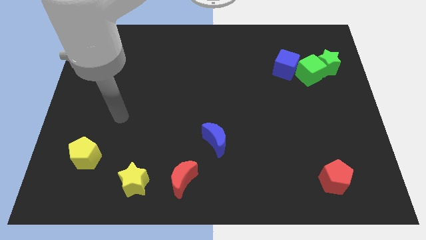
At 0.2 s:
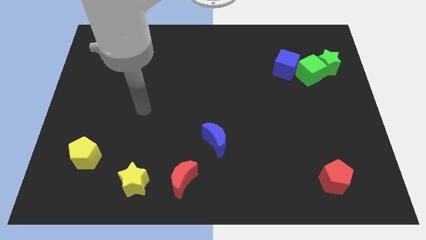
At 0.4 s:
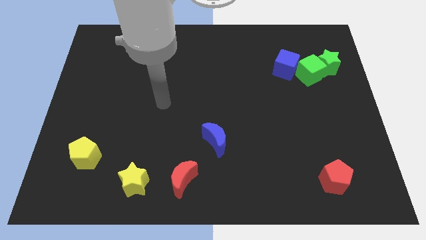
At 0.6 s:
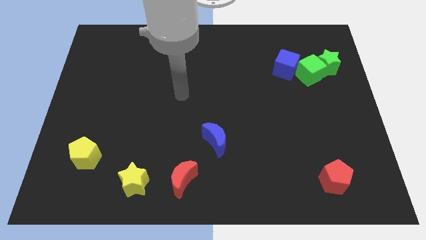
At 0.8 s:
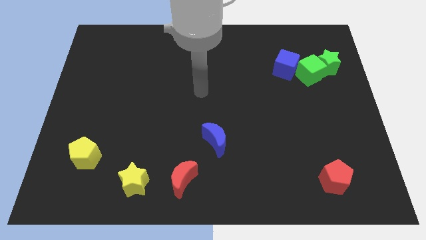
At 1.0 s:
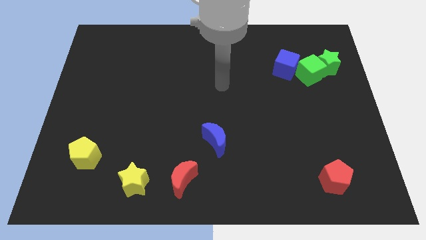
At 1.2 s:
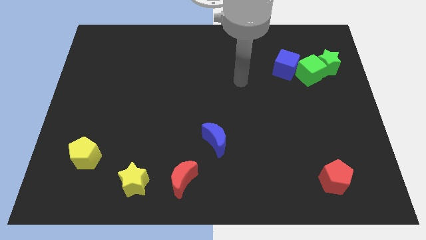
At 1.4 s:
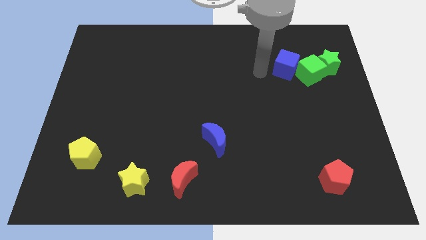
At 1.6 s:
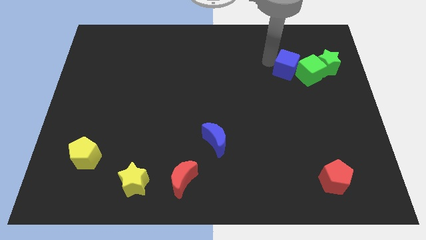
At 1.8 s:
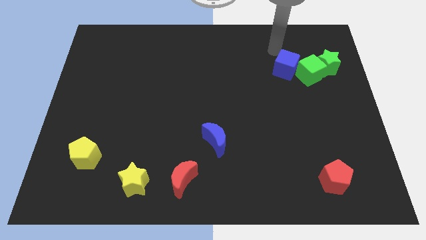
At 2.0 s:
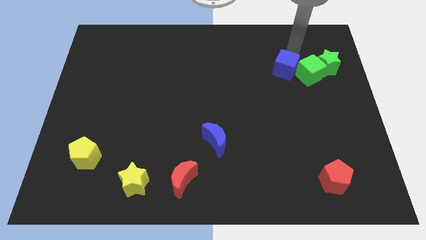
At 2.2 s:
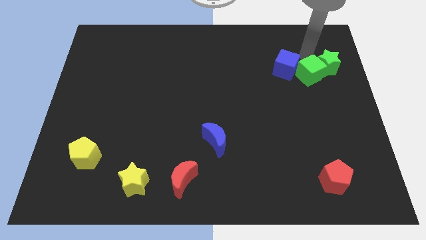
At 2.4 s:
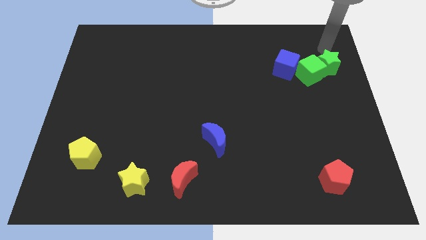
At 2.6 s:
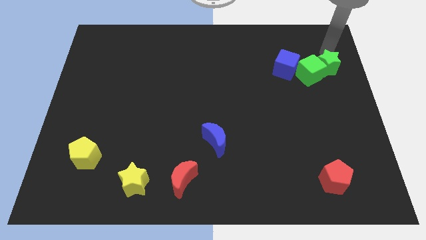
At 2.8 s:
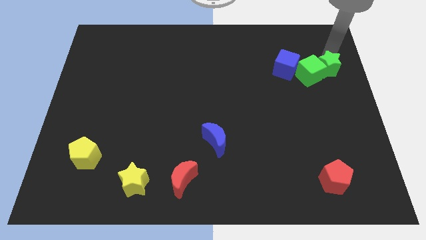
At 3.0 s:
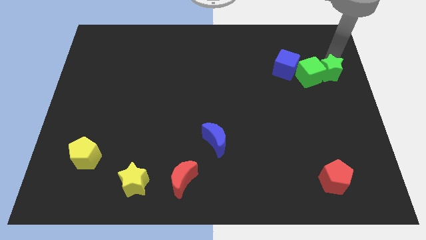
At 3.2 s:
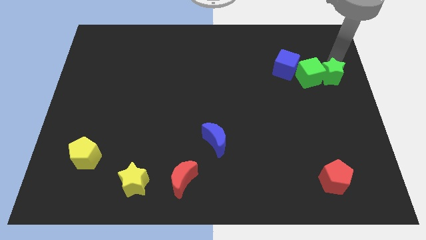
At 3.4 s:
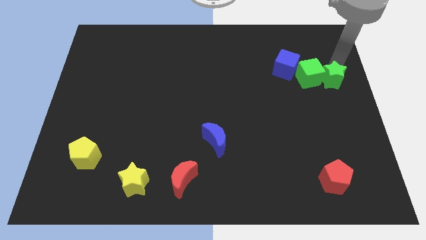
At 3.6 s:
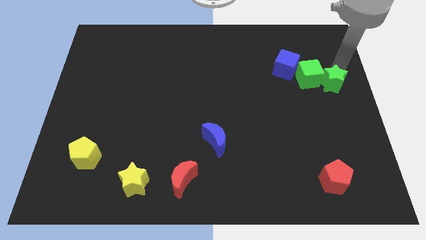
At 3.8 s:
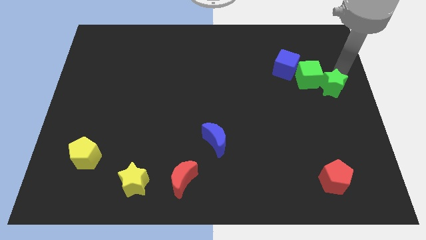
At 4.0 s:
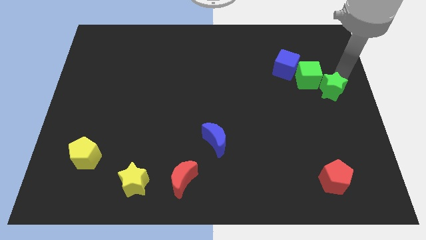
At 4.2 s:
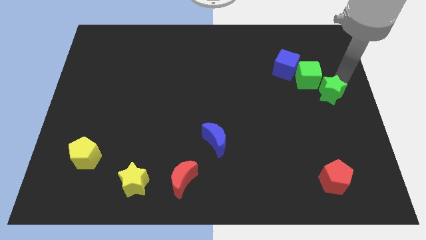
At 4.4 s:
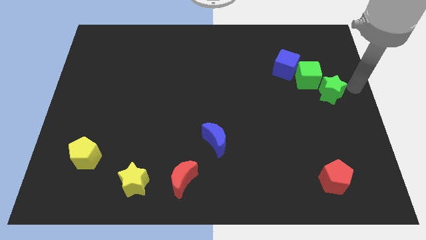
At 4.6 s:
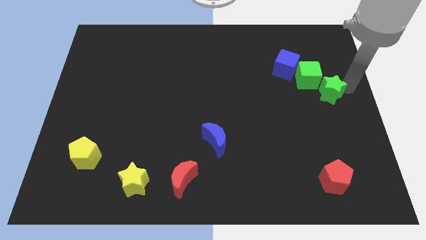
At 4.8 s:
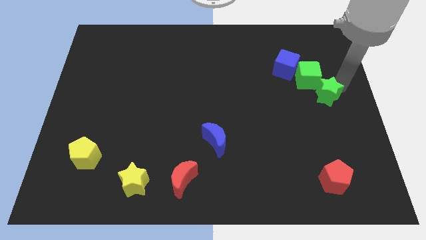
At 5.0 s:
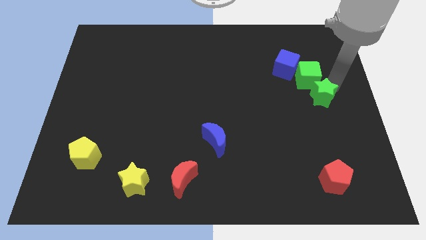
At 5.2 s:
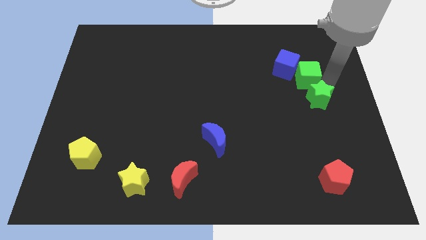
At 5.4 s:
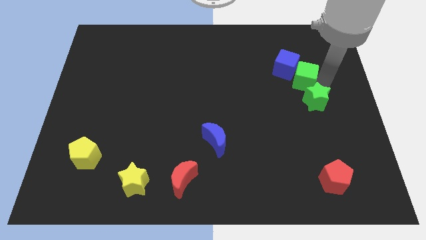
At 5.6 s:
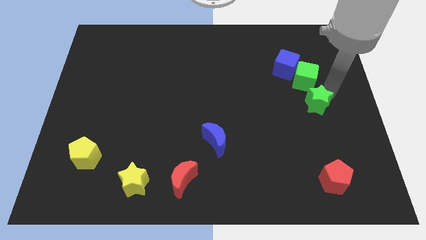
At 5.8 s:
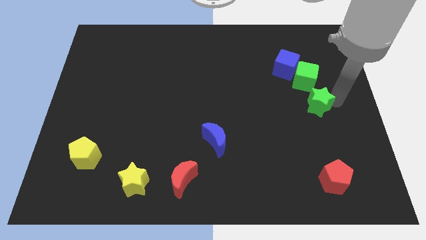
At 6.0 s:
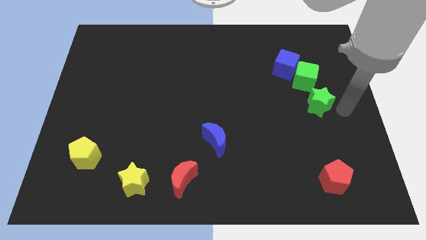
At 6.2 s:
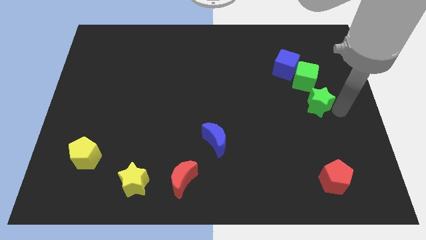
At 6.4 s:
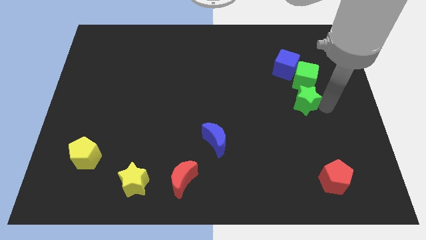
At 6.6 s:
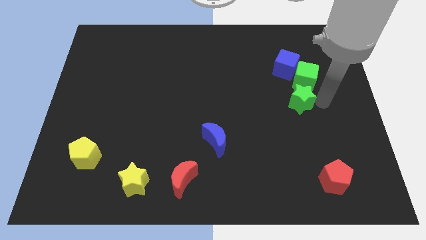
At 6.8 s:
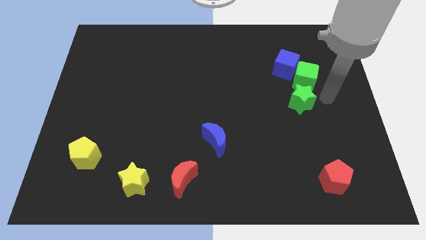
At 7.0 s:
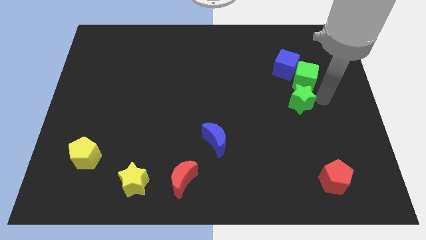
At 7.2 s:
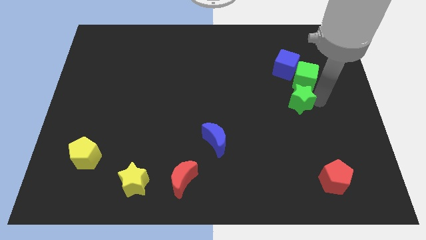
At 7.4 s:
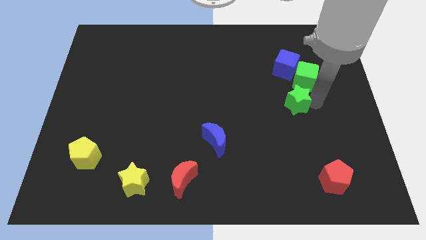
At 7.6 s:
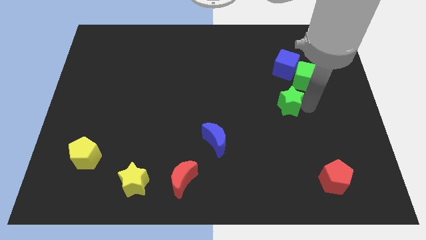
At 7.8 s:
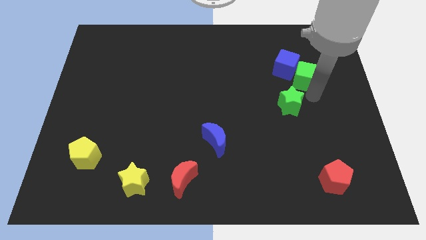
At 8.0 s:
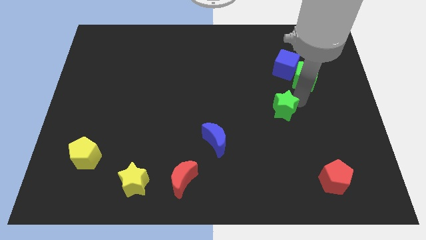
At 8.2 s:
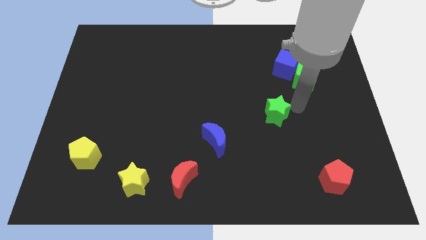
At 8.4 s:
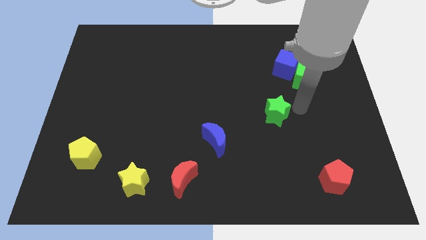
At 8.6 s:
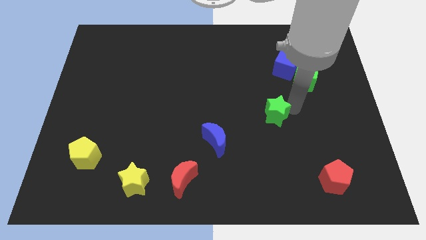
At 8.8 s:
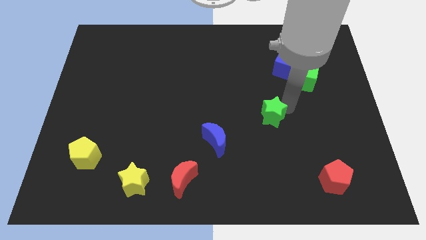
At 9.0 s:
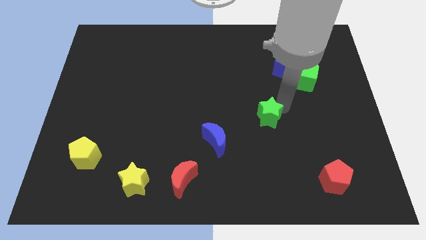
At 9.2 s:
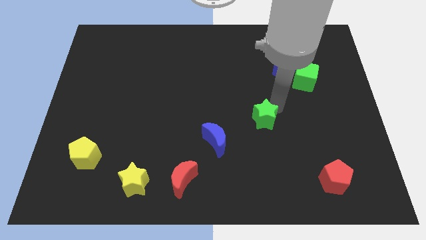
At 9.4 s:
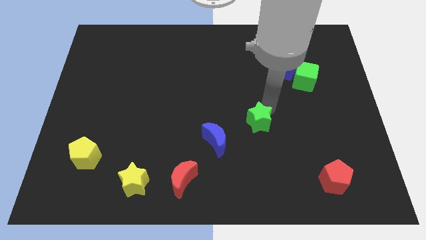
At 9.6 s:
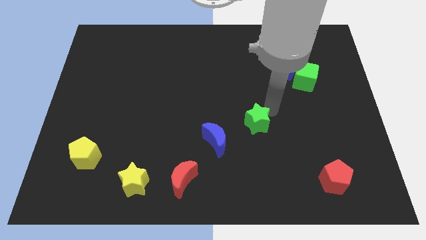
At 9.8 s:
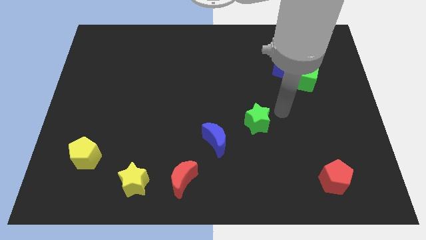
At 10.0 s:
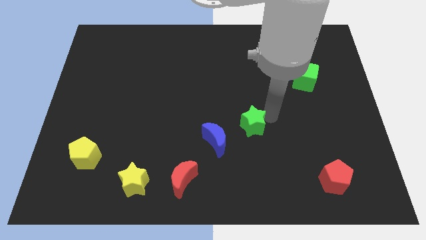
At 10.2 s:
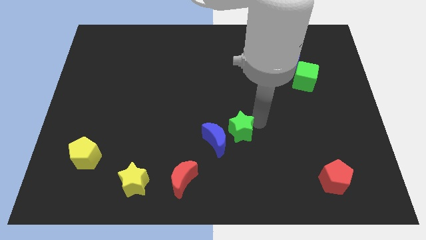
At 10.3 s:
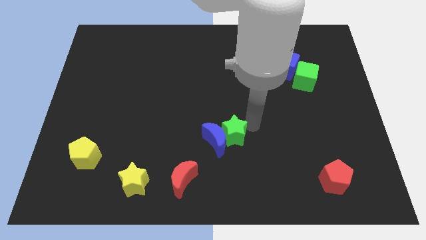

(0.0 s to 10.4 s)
move the green star next to the blue moon

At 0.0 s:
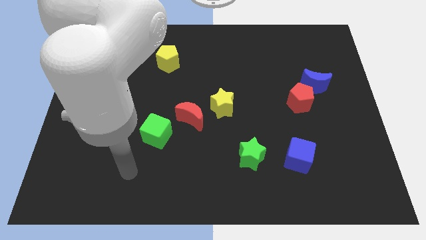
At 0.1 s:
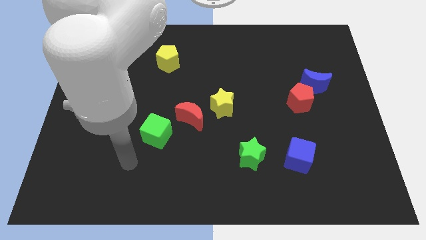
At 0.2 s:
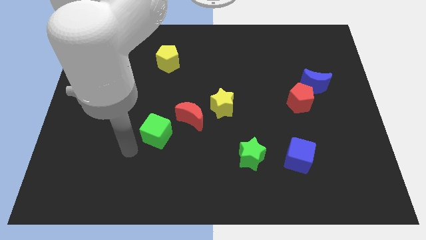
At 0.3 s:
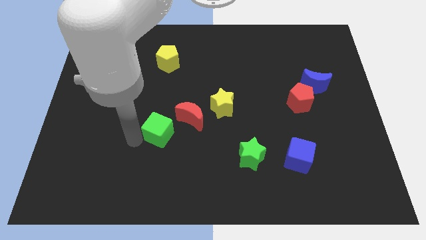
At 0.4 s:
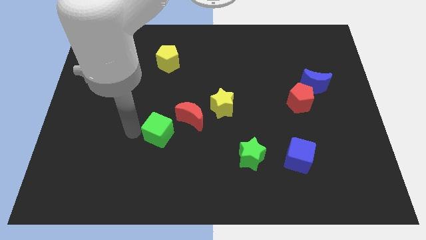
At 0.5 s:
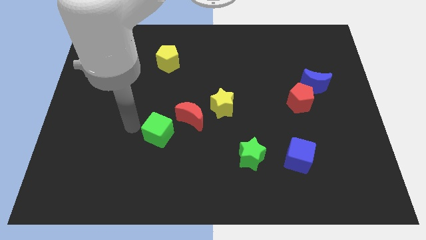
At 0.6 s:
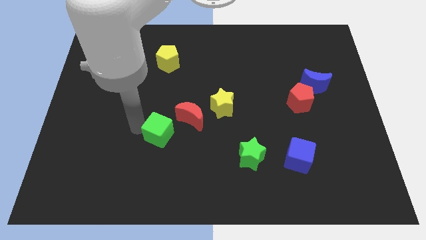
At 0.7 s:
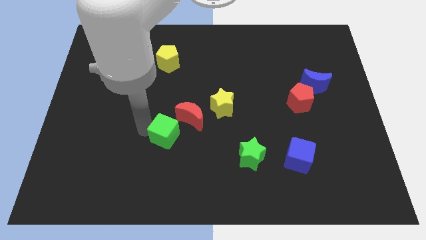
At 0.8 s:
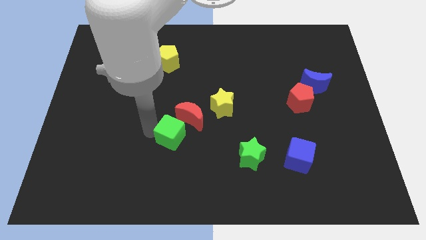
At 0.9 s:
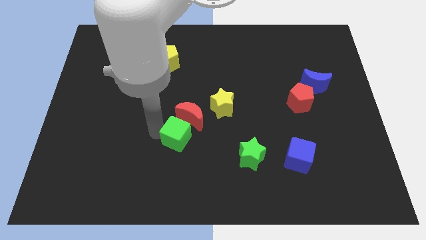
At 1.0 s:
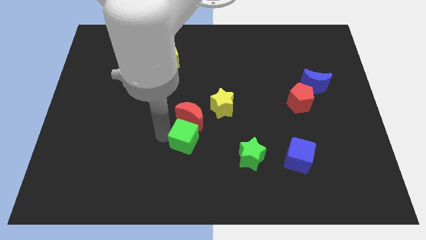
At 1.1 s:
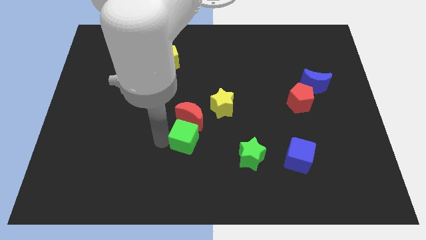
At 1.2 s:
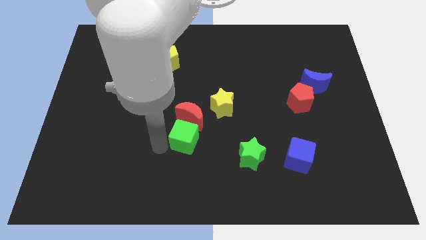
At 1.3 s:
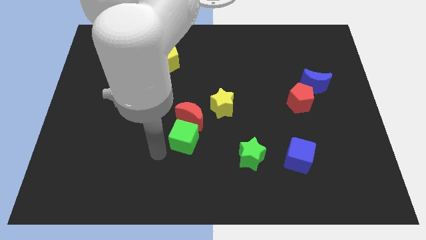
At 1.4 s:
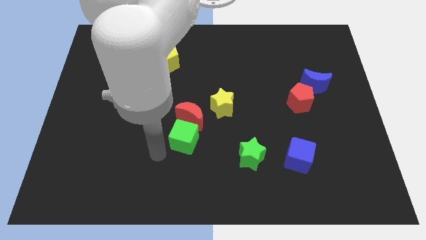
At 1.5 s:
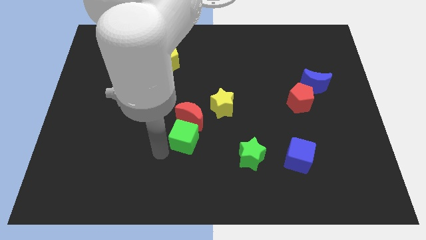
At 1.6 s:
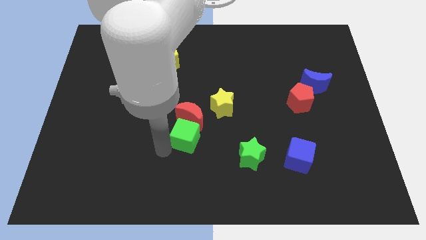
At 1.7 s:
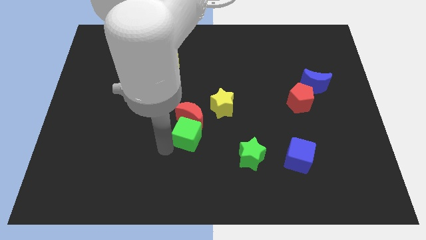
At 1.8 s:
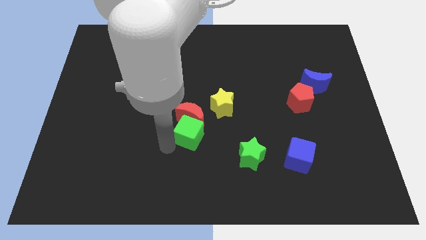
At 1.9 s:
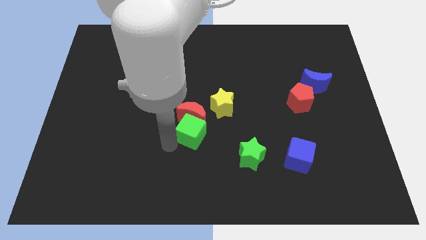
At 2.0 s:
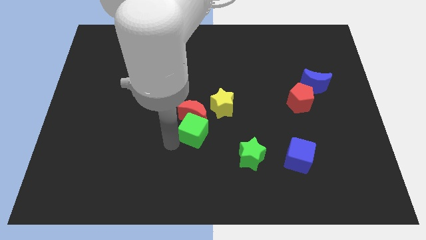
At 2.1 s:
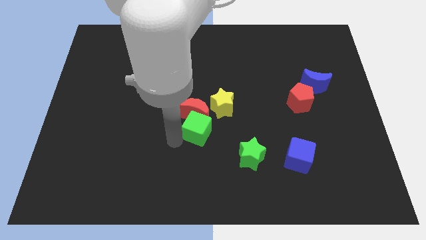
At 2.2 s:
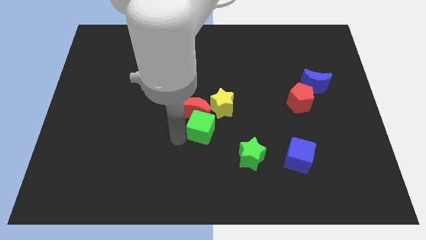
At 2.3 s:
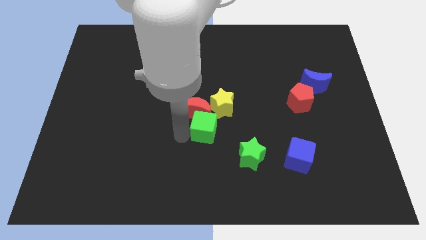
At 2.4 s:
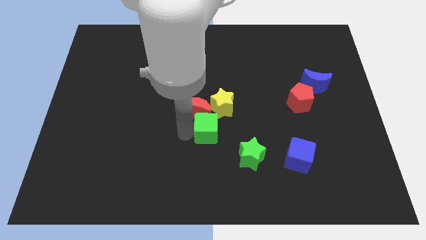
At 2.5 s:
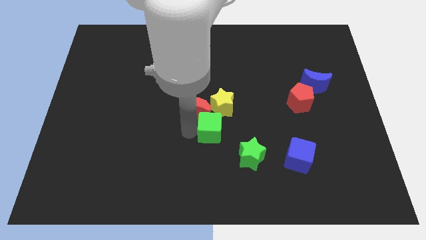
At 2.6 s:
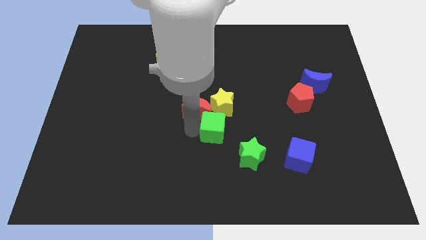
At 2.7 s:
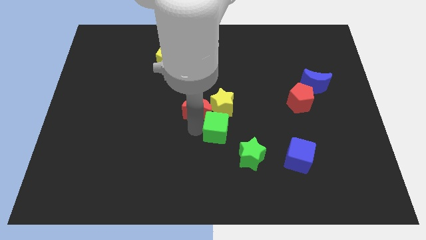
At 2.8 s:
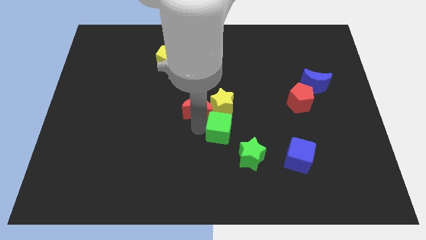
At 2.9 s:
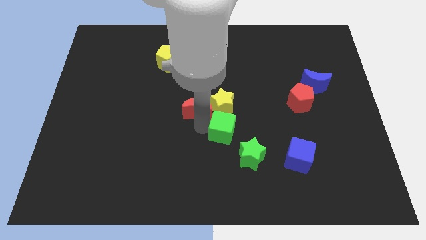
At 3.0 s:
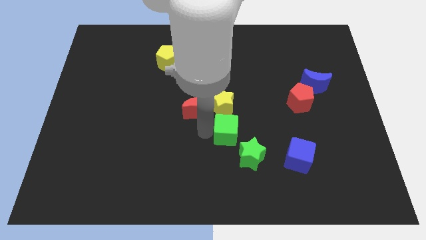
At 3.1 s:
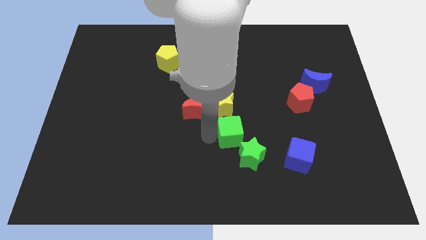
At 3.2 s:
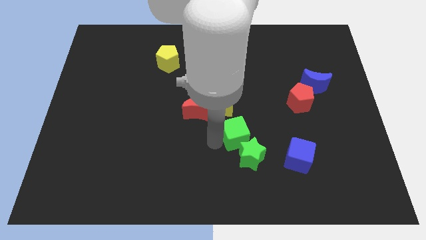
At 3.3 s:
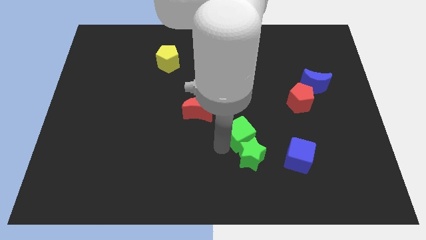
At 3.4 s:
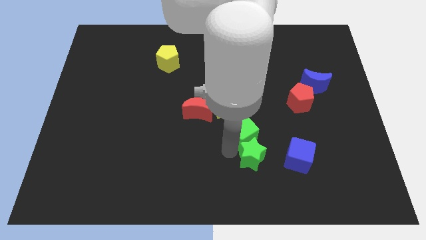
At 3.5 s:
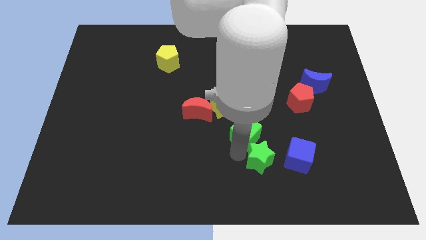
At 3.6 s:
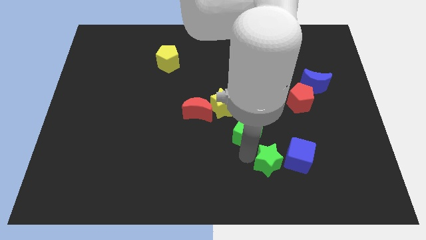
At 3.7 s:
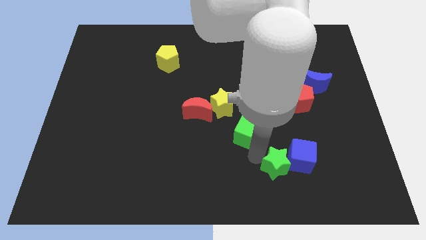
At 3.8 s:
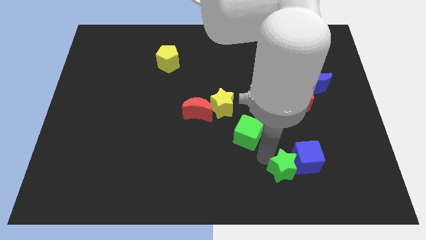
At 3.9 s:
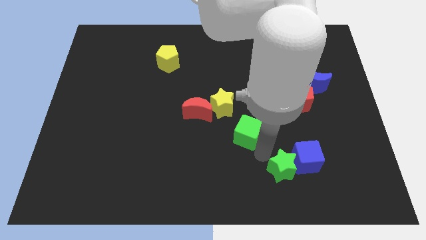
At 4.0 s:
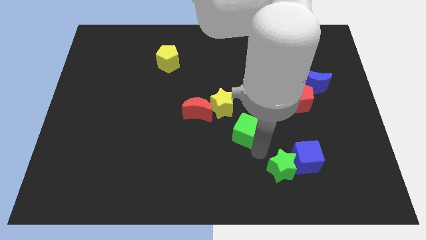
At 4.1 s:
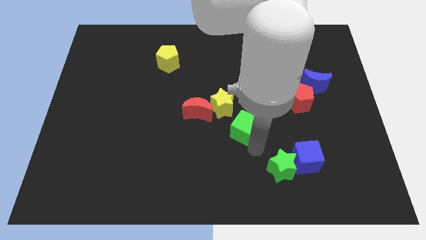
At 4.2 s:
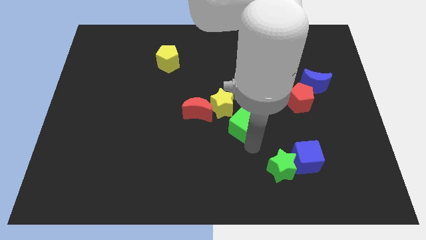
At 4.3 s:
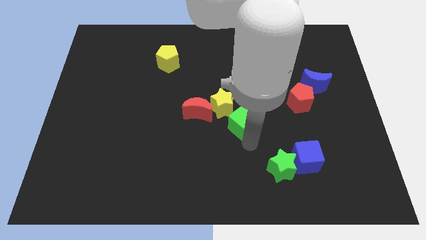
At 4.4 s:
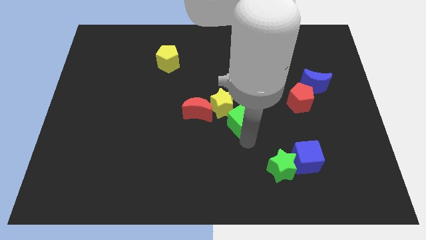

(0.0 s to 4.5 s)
slide the green cube to the yellow star
